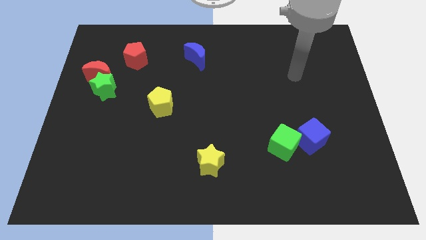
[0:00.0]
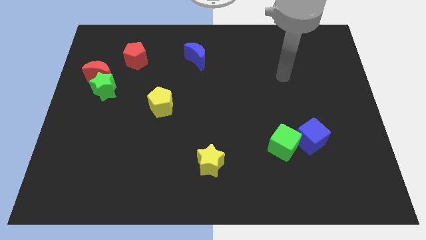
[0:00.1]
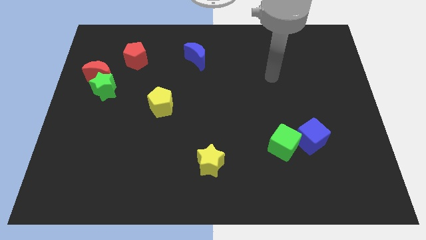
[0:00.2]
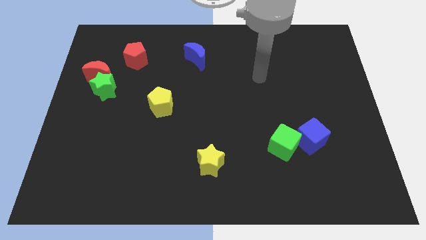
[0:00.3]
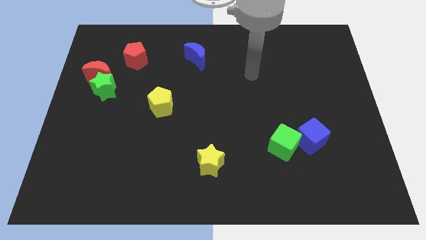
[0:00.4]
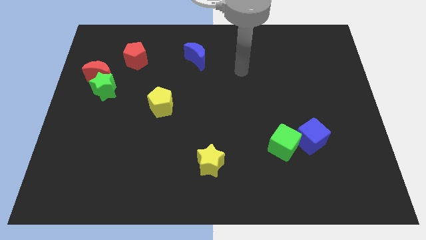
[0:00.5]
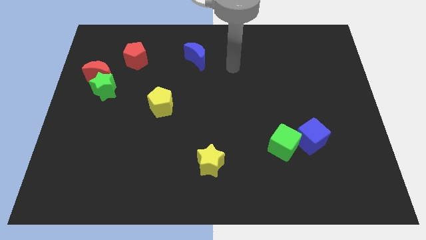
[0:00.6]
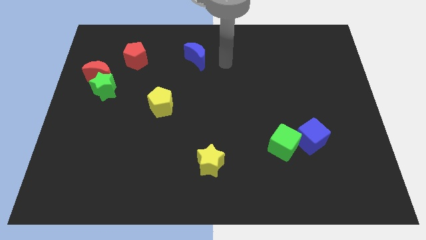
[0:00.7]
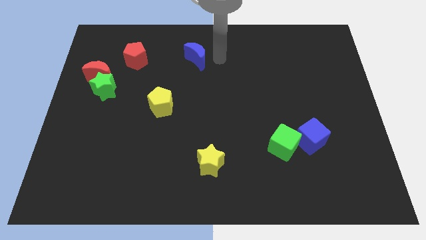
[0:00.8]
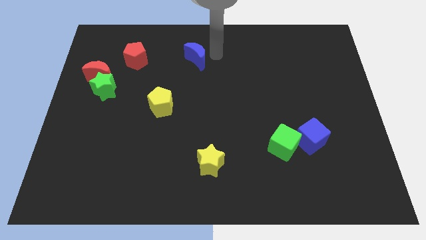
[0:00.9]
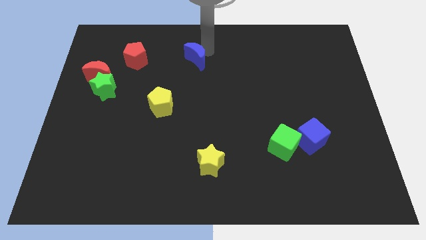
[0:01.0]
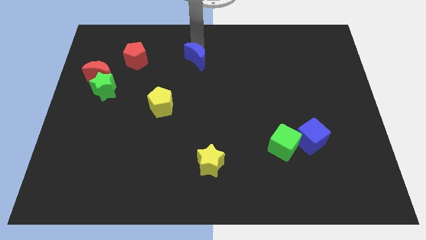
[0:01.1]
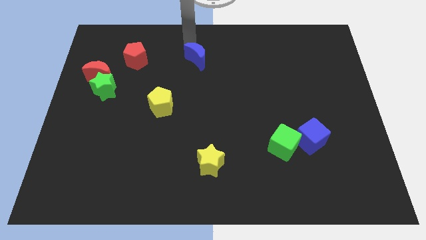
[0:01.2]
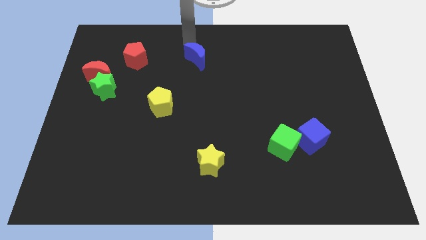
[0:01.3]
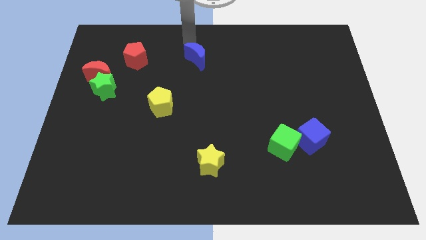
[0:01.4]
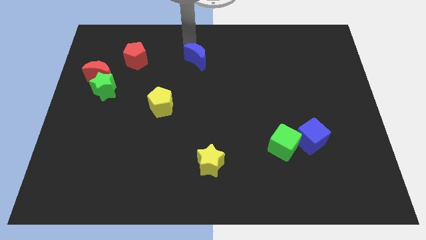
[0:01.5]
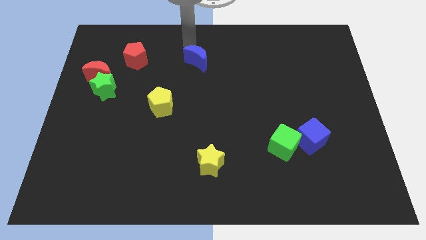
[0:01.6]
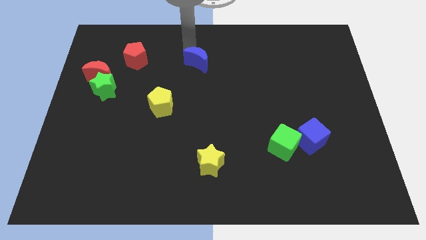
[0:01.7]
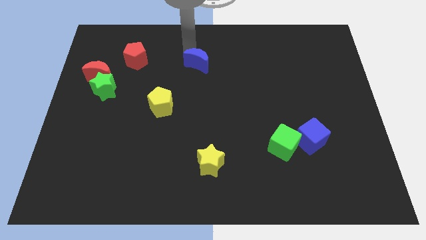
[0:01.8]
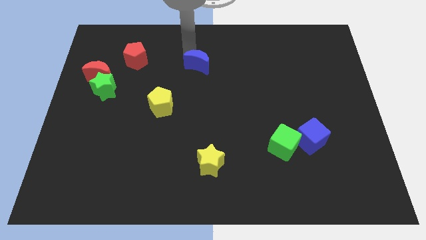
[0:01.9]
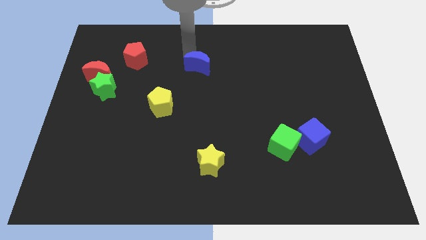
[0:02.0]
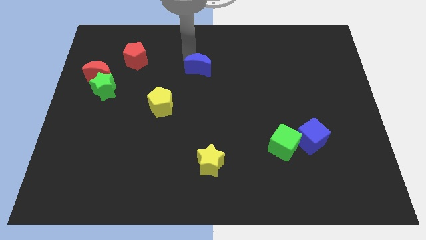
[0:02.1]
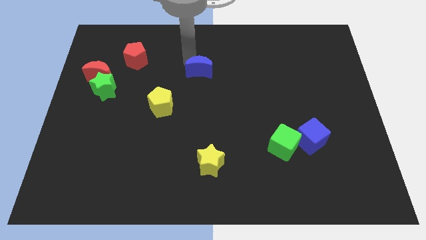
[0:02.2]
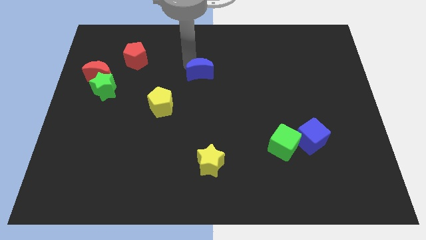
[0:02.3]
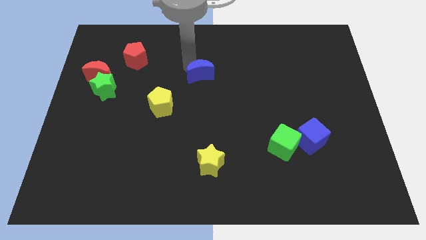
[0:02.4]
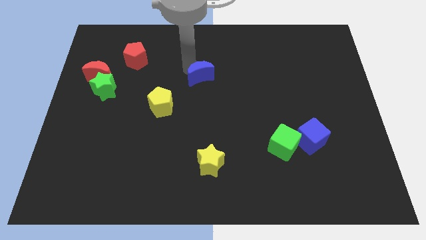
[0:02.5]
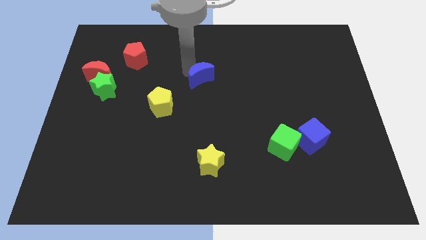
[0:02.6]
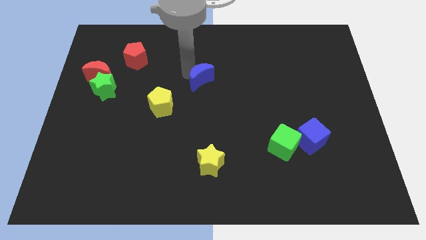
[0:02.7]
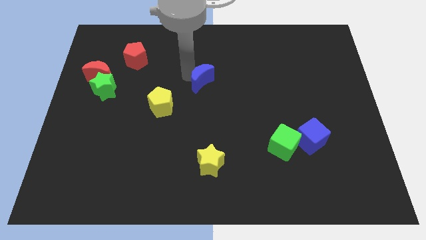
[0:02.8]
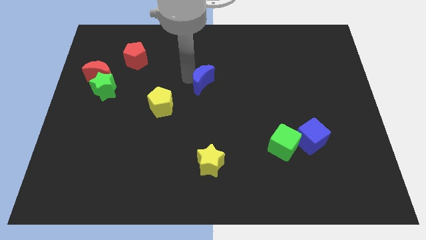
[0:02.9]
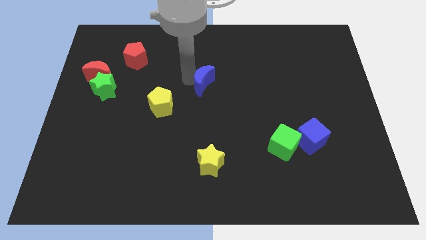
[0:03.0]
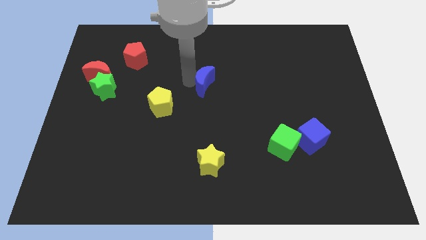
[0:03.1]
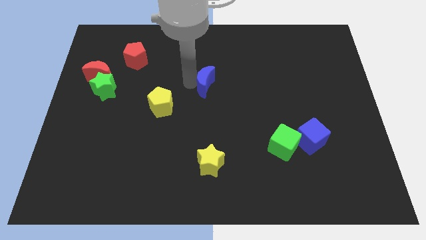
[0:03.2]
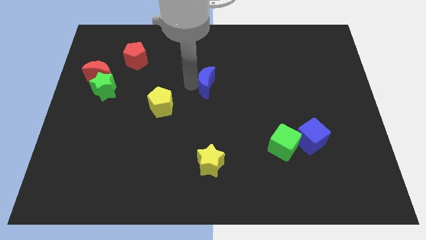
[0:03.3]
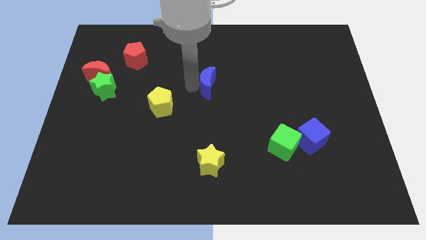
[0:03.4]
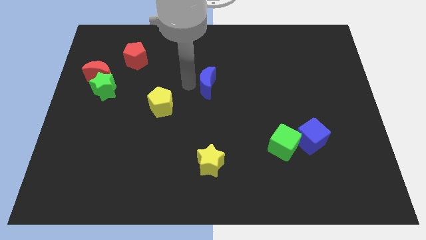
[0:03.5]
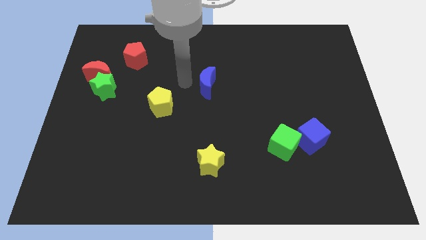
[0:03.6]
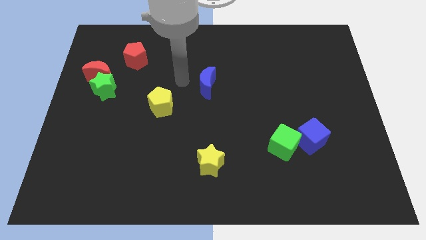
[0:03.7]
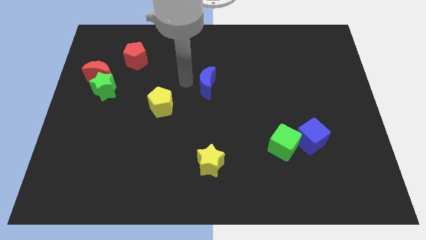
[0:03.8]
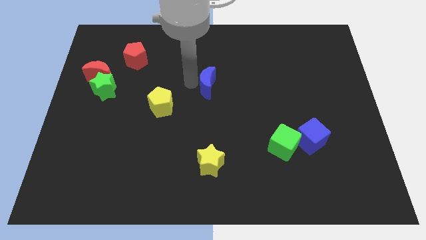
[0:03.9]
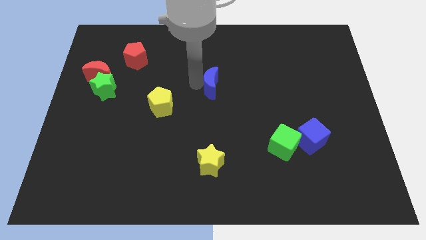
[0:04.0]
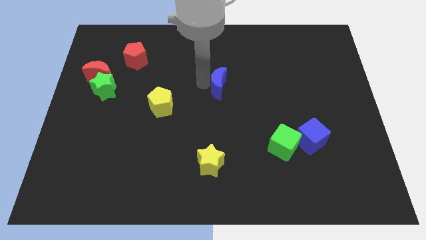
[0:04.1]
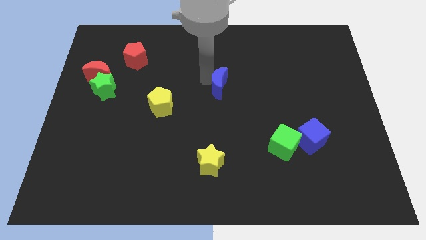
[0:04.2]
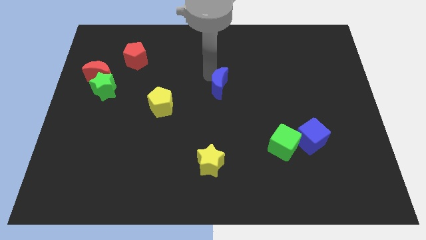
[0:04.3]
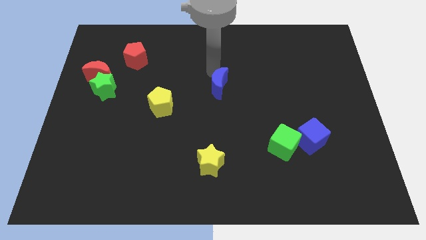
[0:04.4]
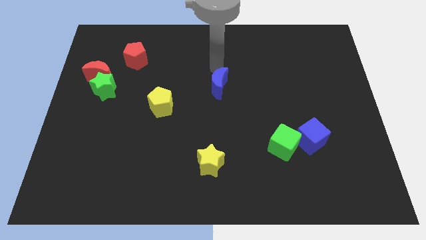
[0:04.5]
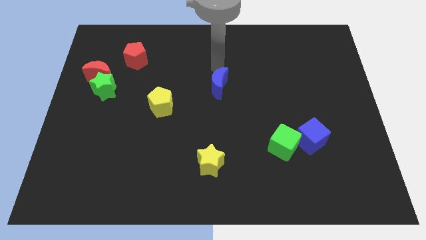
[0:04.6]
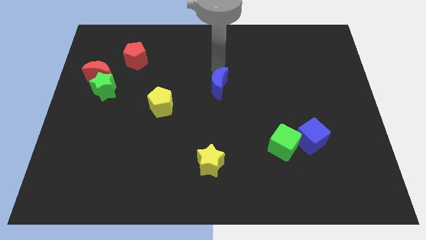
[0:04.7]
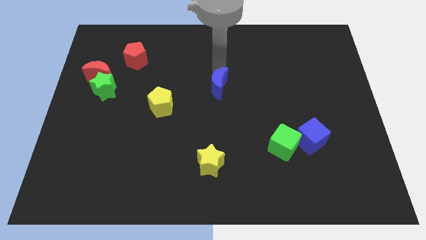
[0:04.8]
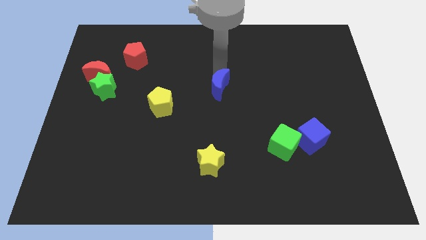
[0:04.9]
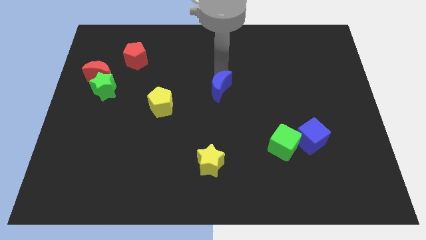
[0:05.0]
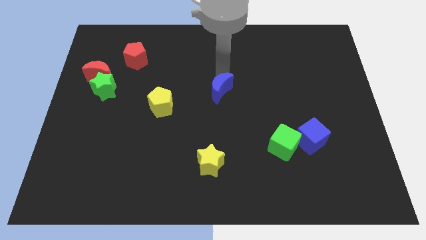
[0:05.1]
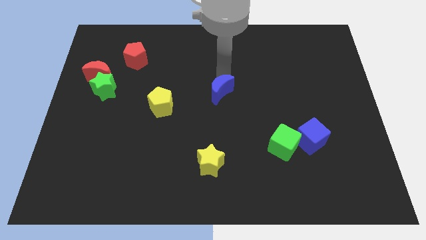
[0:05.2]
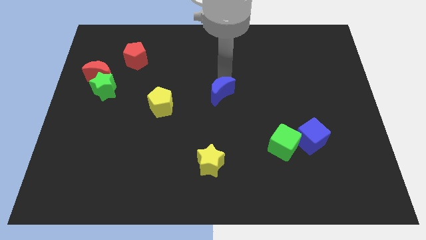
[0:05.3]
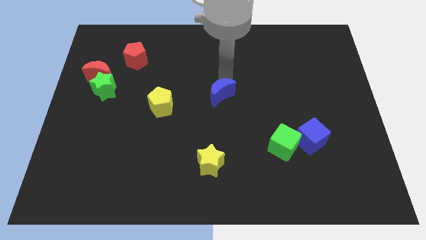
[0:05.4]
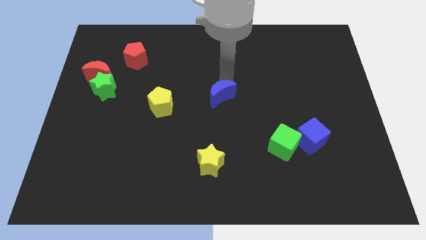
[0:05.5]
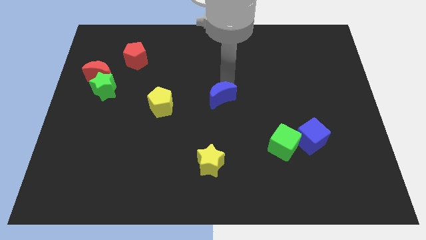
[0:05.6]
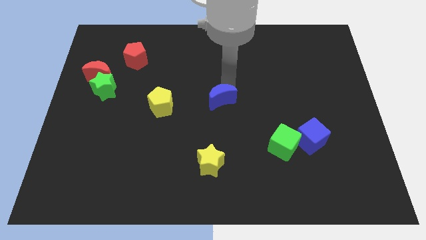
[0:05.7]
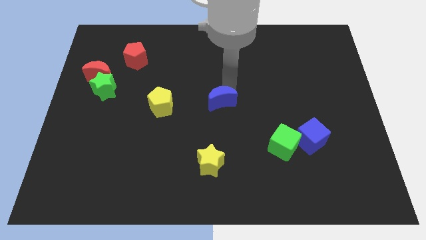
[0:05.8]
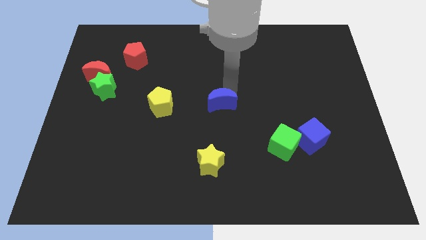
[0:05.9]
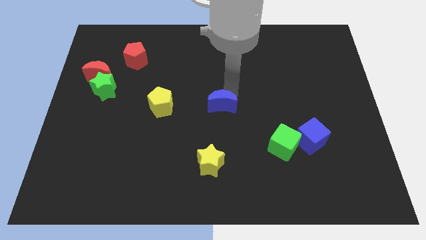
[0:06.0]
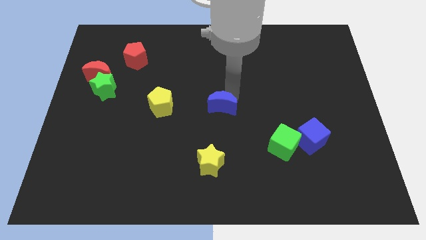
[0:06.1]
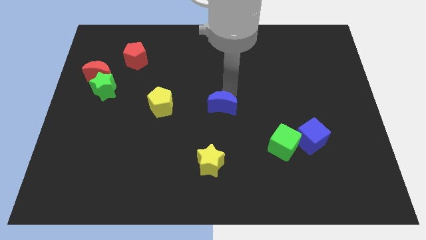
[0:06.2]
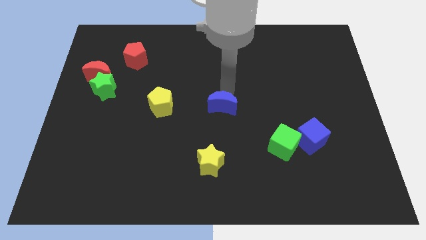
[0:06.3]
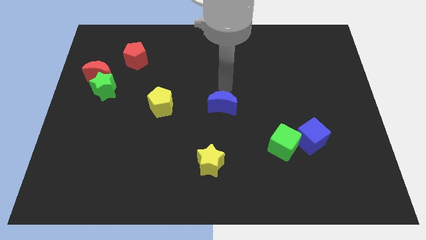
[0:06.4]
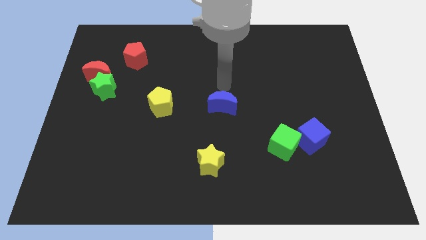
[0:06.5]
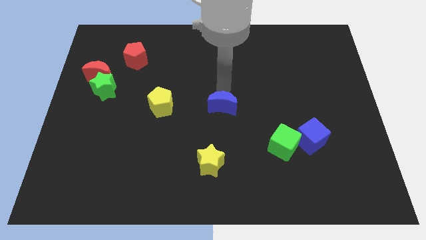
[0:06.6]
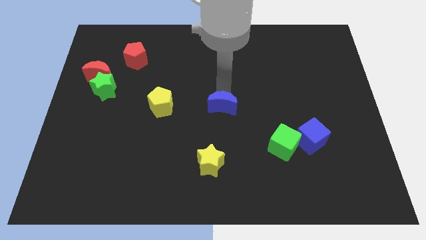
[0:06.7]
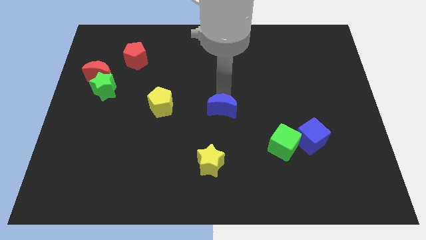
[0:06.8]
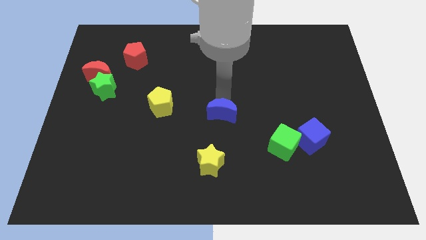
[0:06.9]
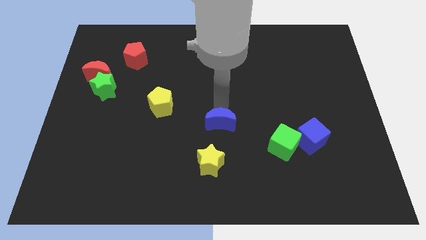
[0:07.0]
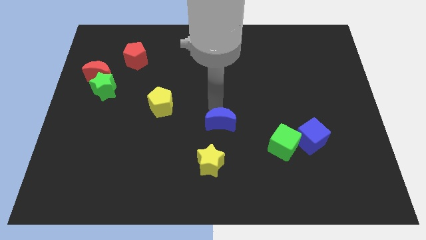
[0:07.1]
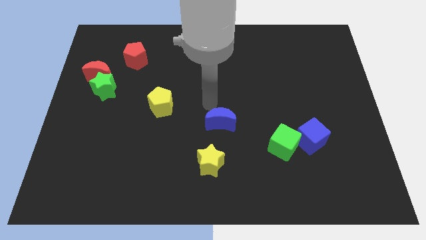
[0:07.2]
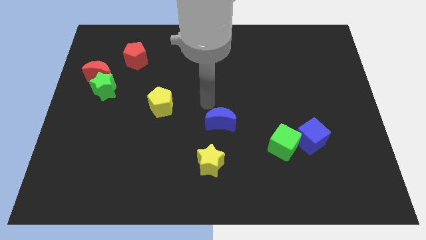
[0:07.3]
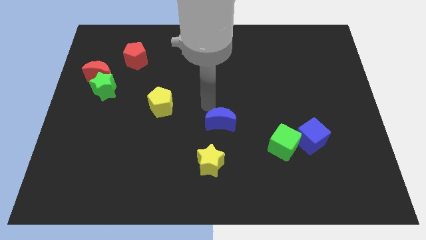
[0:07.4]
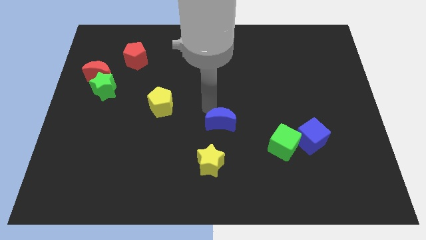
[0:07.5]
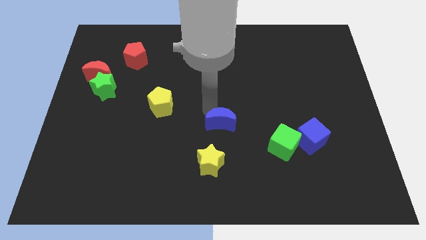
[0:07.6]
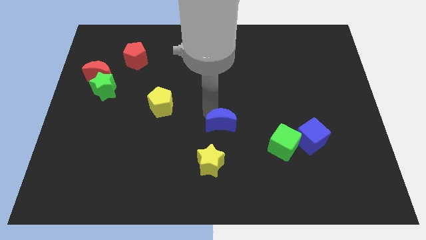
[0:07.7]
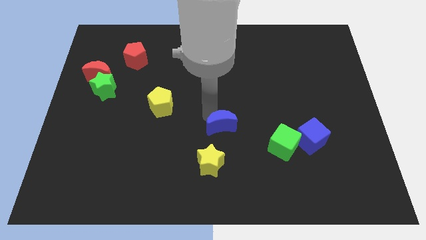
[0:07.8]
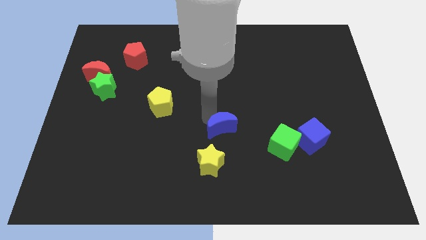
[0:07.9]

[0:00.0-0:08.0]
move the blue moon to the top right of the yellow star
